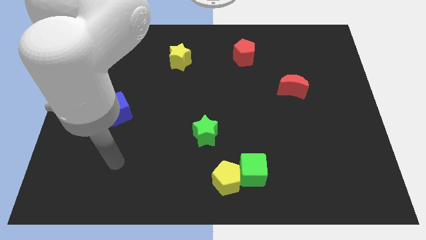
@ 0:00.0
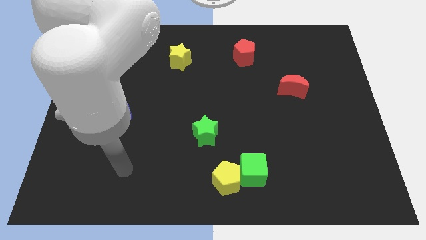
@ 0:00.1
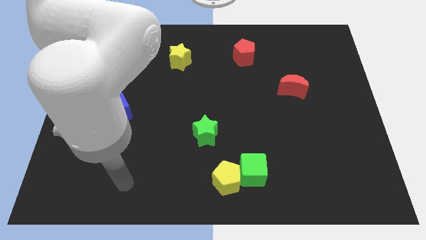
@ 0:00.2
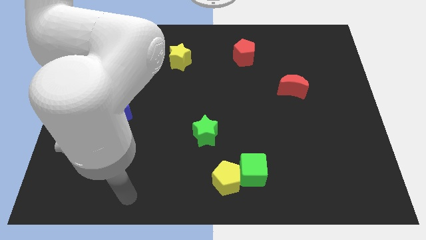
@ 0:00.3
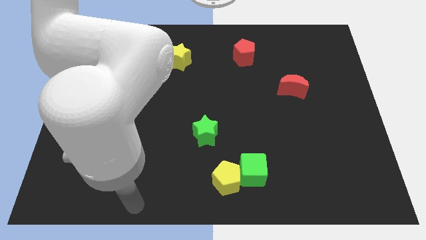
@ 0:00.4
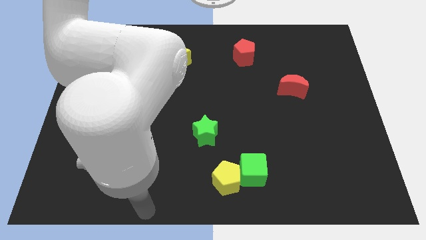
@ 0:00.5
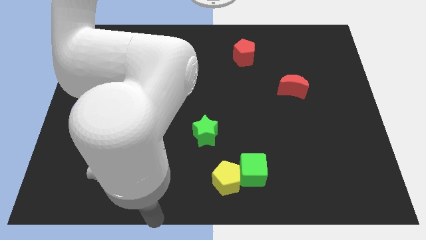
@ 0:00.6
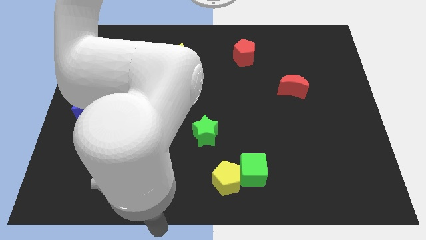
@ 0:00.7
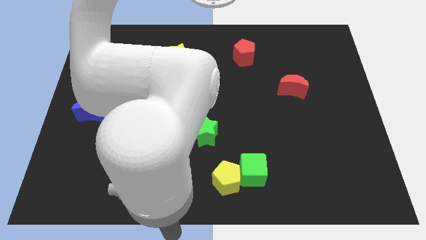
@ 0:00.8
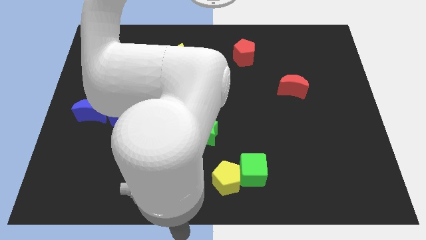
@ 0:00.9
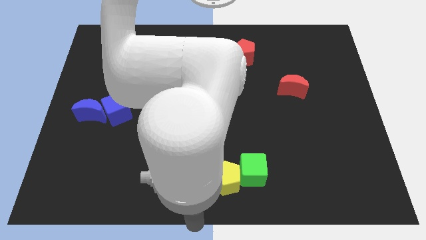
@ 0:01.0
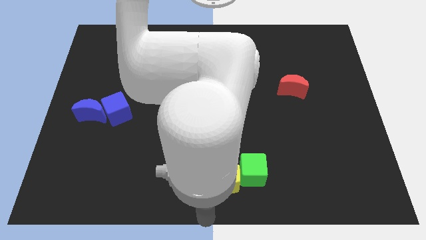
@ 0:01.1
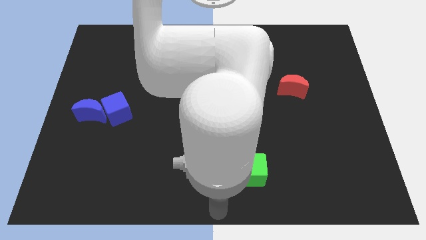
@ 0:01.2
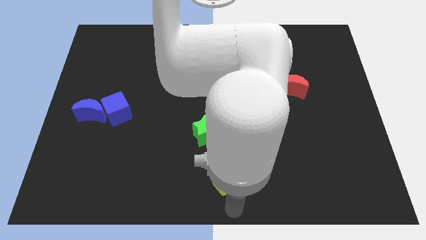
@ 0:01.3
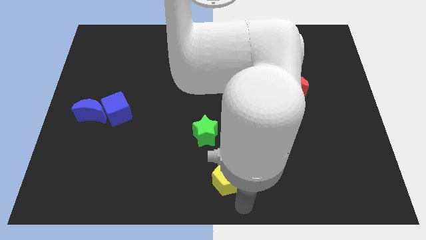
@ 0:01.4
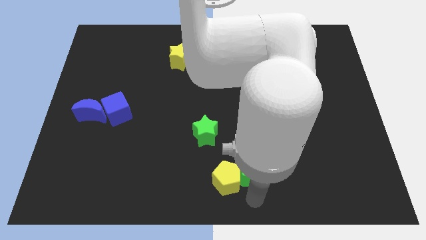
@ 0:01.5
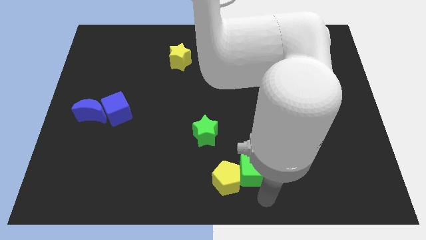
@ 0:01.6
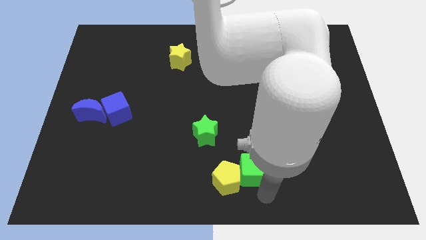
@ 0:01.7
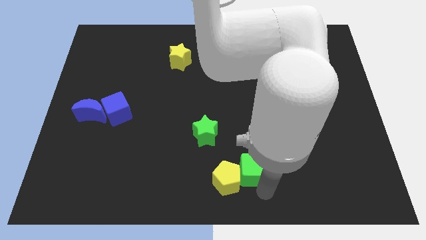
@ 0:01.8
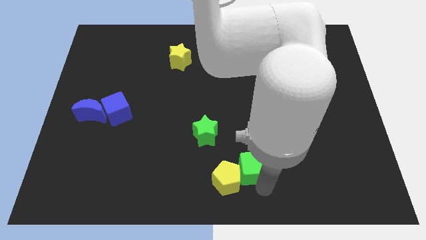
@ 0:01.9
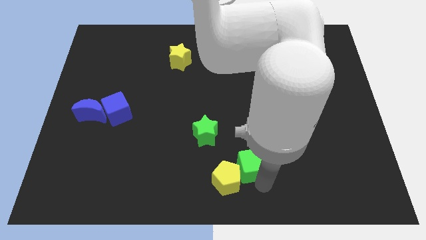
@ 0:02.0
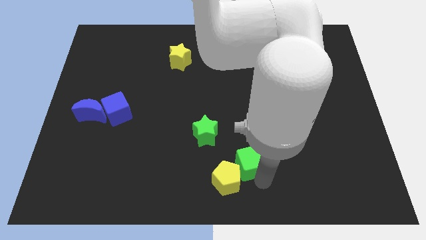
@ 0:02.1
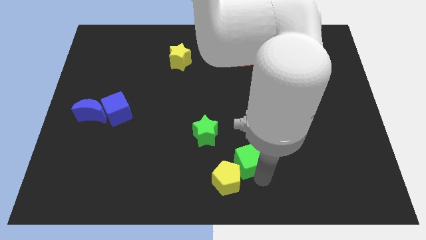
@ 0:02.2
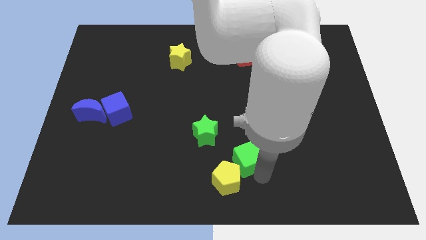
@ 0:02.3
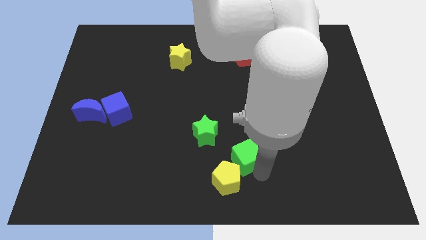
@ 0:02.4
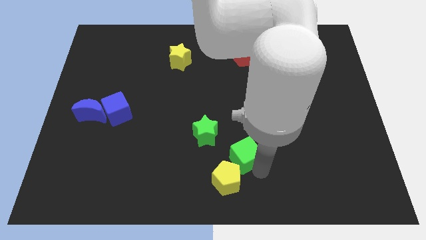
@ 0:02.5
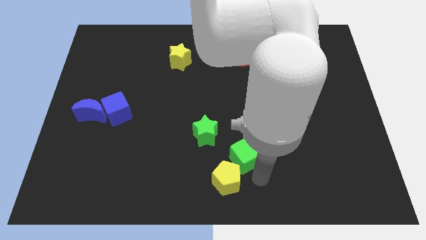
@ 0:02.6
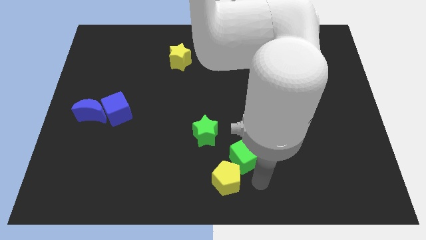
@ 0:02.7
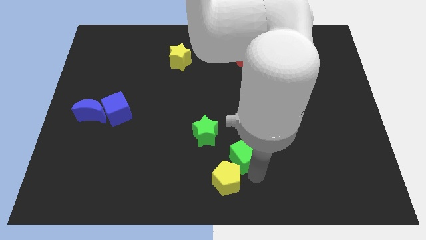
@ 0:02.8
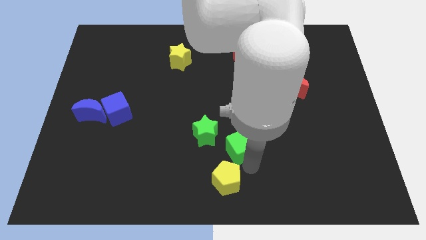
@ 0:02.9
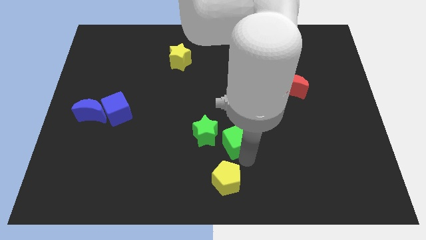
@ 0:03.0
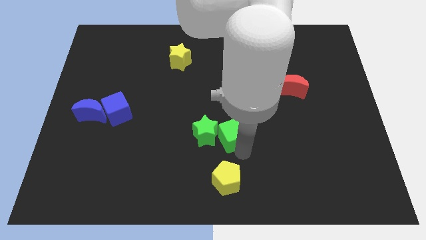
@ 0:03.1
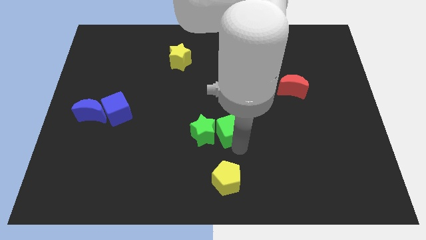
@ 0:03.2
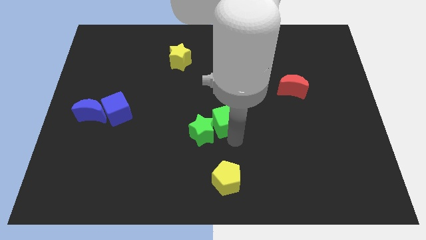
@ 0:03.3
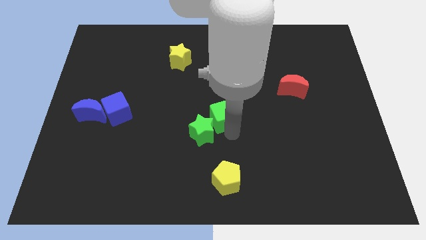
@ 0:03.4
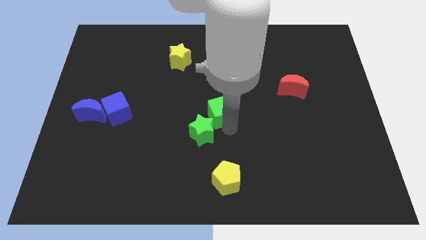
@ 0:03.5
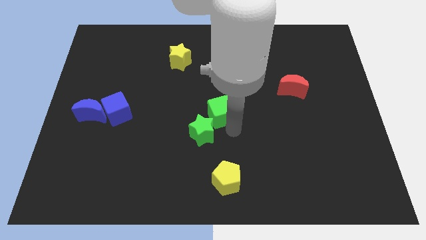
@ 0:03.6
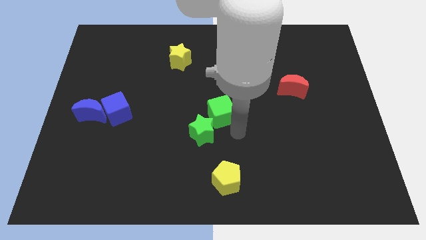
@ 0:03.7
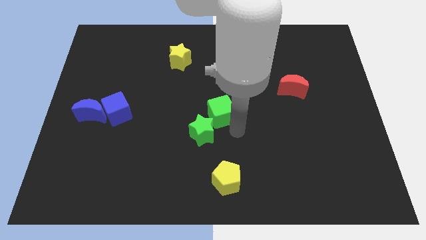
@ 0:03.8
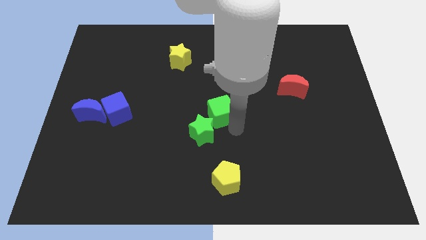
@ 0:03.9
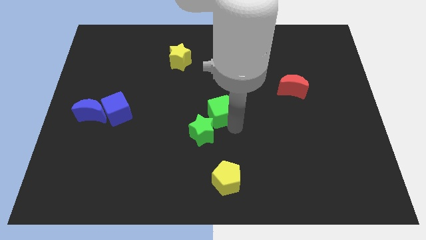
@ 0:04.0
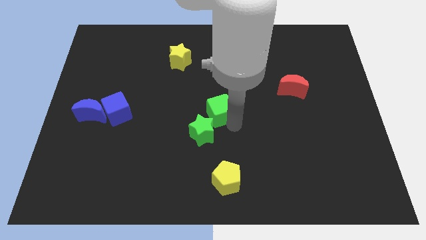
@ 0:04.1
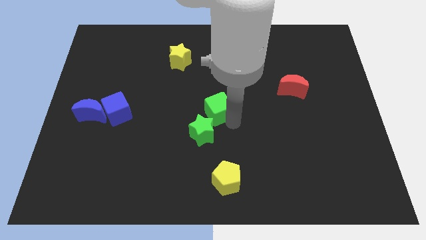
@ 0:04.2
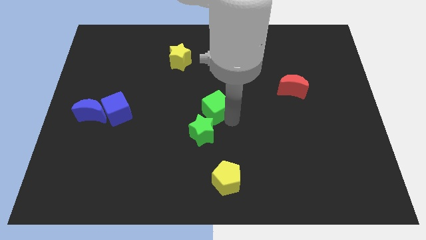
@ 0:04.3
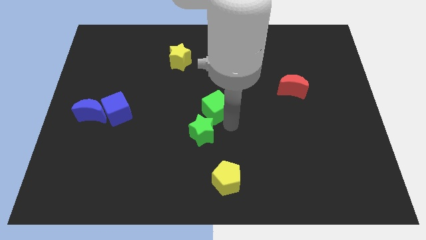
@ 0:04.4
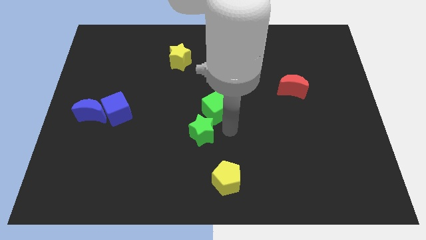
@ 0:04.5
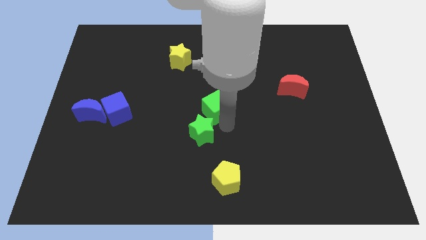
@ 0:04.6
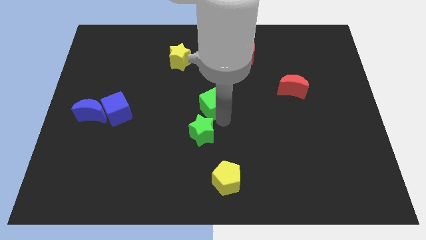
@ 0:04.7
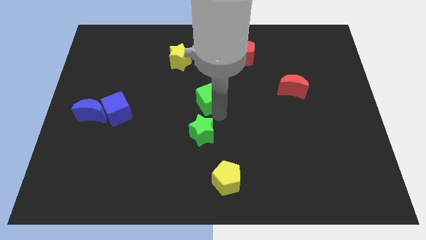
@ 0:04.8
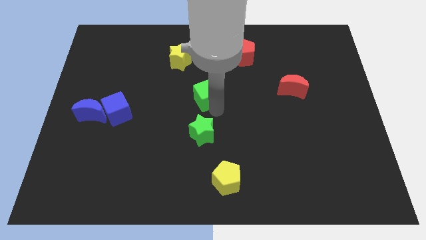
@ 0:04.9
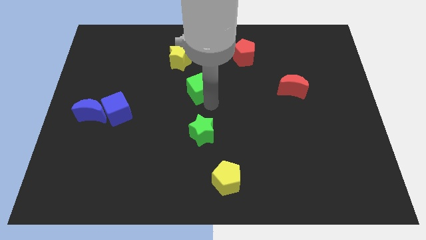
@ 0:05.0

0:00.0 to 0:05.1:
slide the green cube to the bottom right side of the yellow star

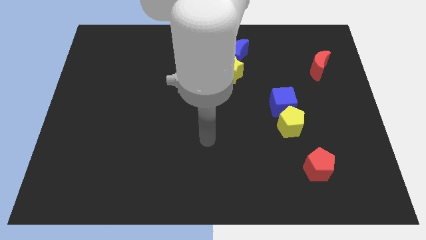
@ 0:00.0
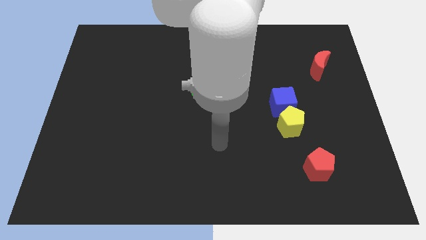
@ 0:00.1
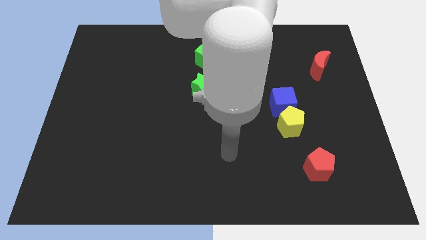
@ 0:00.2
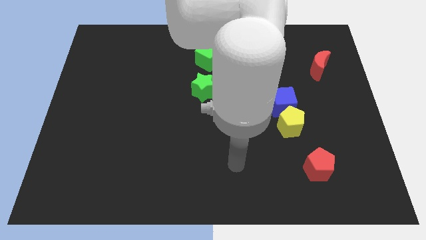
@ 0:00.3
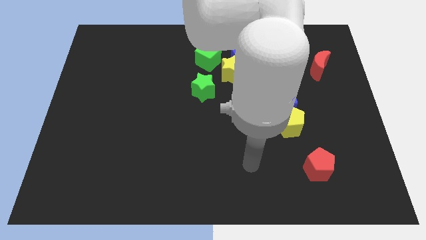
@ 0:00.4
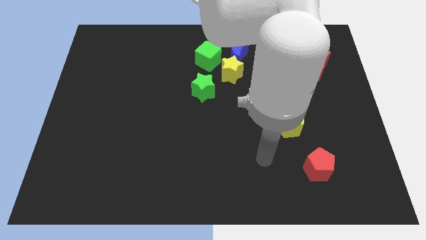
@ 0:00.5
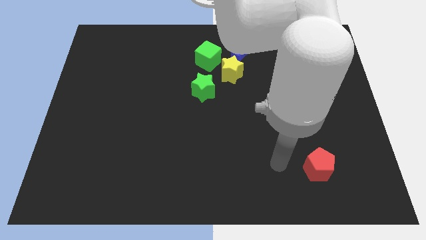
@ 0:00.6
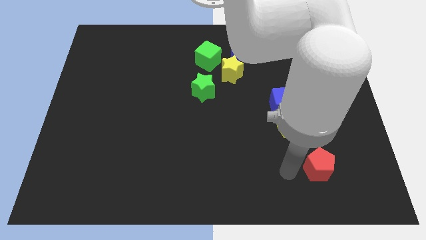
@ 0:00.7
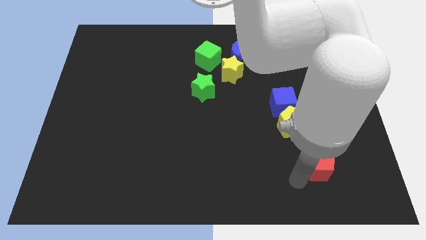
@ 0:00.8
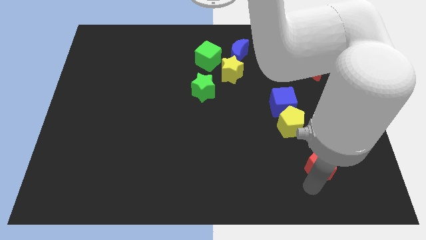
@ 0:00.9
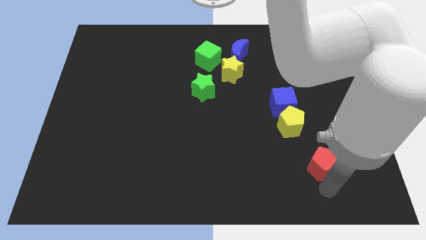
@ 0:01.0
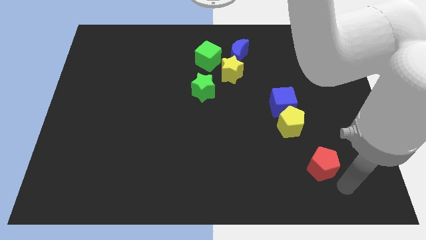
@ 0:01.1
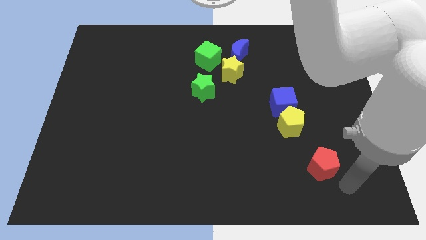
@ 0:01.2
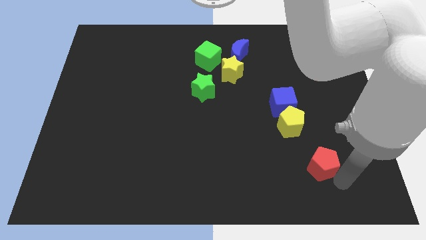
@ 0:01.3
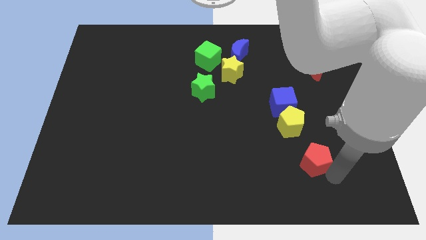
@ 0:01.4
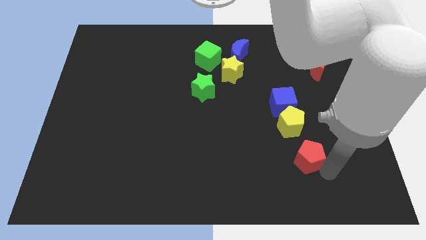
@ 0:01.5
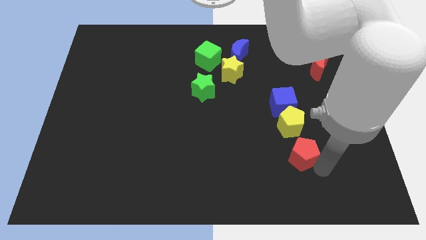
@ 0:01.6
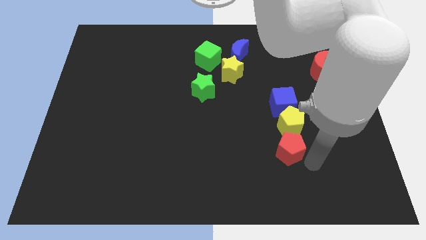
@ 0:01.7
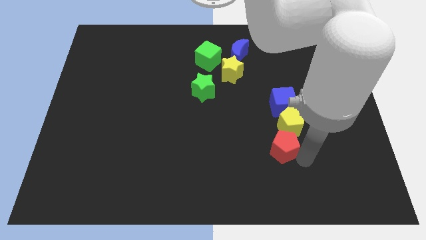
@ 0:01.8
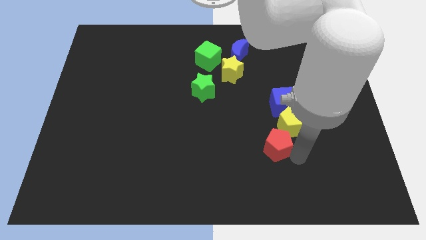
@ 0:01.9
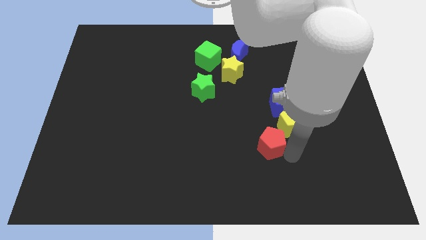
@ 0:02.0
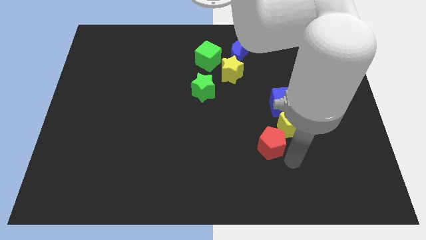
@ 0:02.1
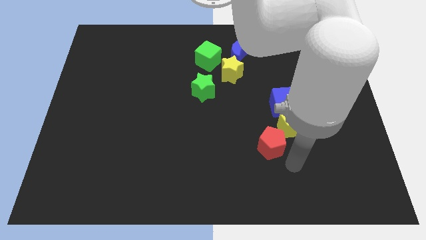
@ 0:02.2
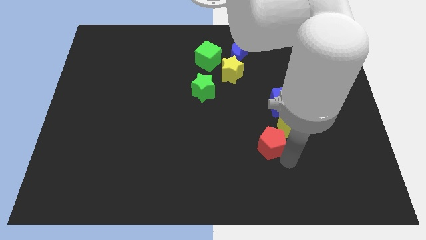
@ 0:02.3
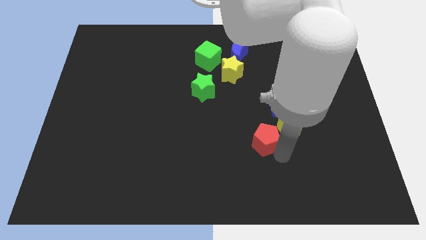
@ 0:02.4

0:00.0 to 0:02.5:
slide the red pentagon to the left of the yellow pentagon
